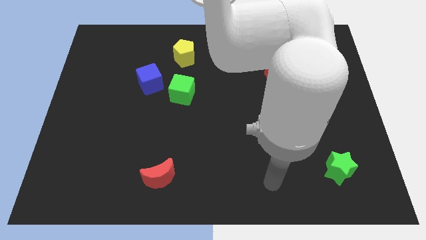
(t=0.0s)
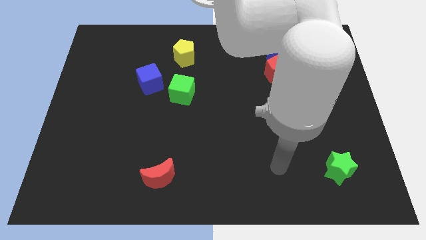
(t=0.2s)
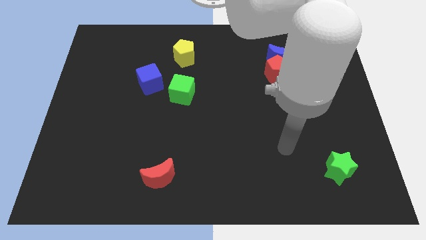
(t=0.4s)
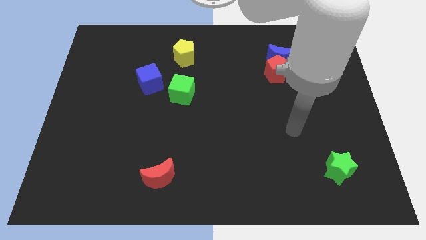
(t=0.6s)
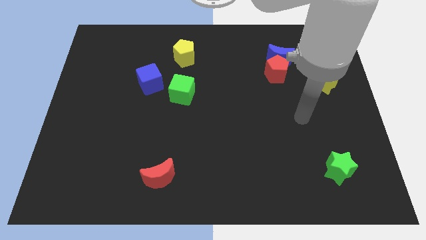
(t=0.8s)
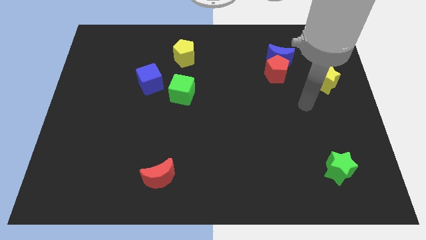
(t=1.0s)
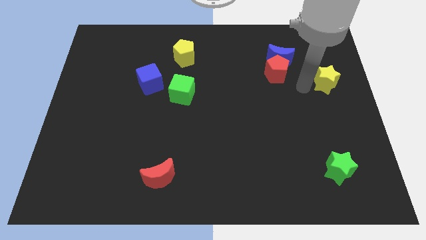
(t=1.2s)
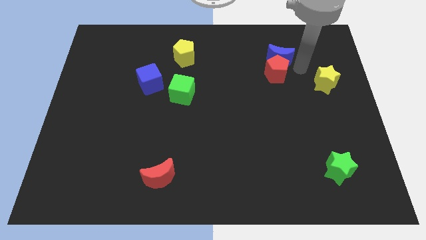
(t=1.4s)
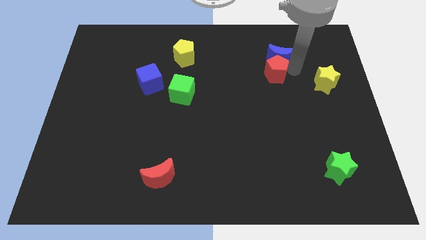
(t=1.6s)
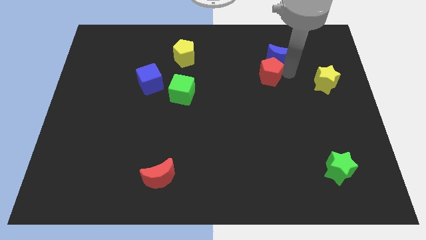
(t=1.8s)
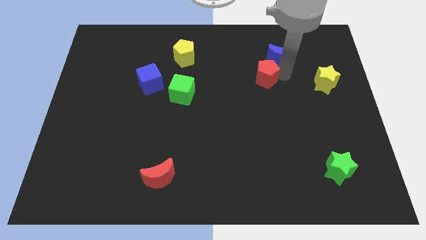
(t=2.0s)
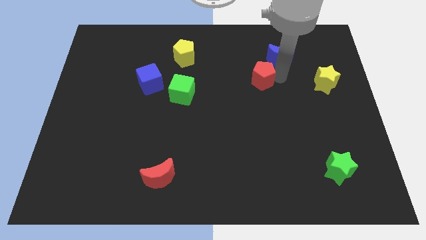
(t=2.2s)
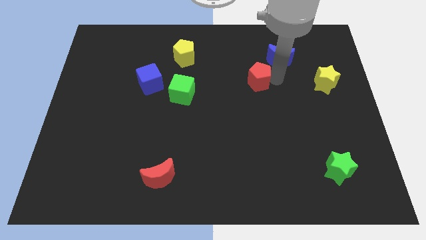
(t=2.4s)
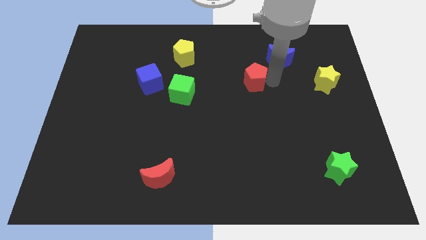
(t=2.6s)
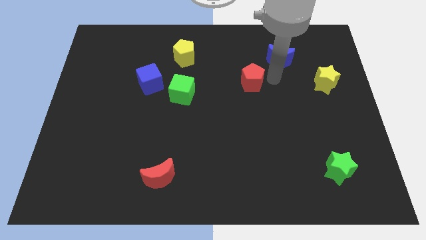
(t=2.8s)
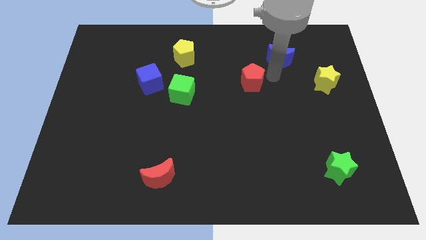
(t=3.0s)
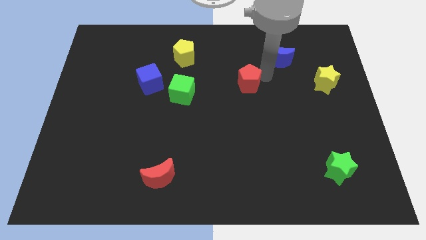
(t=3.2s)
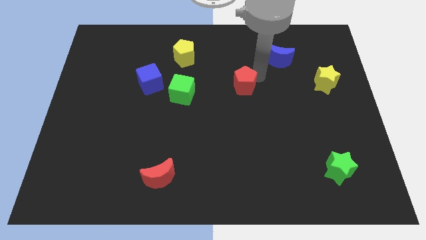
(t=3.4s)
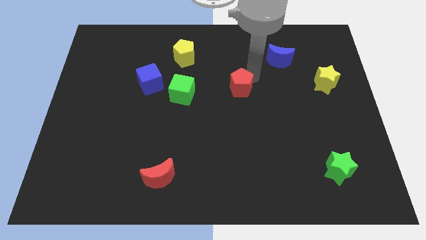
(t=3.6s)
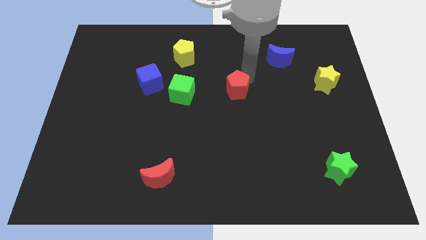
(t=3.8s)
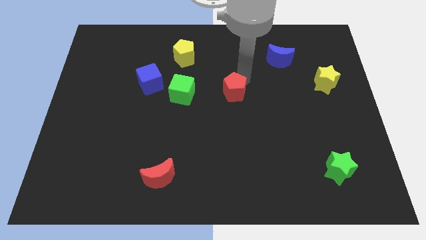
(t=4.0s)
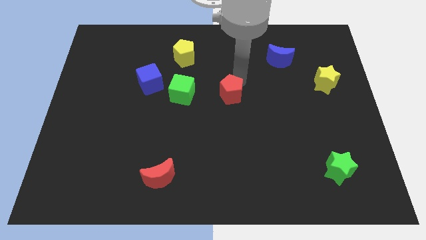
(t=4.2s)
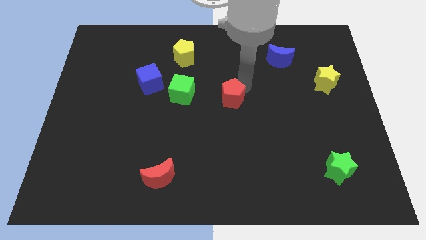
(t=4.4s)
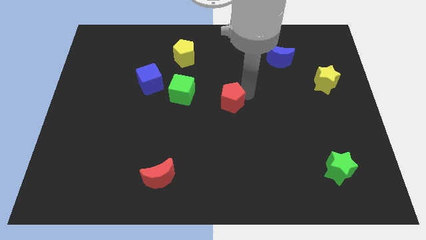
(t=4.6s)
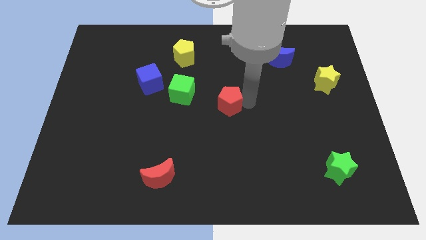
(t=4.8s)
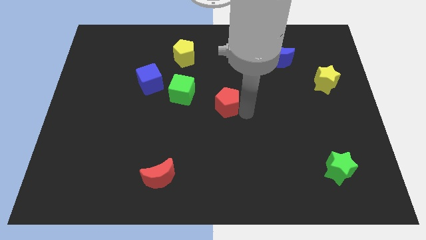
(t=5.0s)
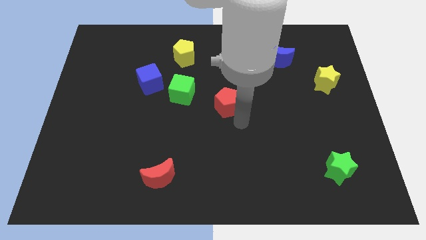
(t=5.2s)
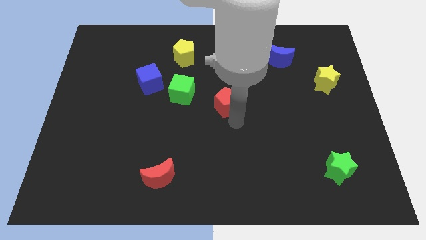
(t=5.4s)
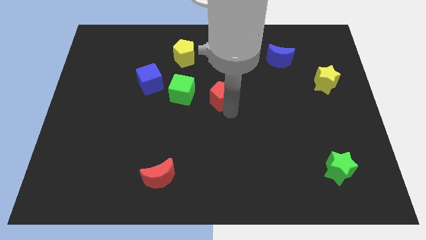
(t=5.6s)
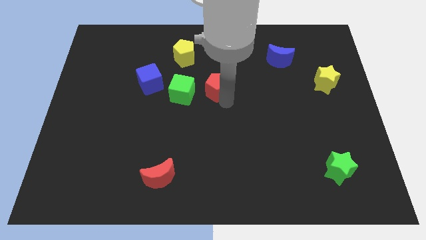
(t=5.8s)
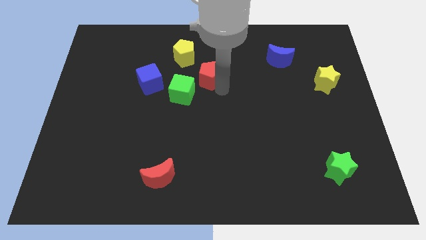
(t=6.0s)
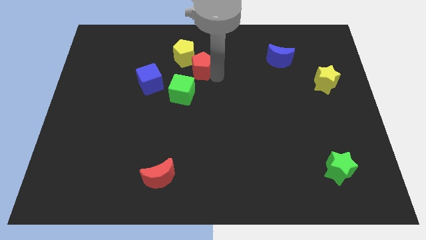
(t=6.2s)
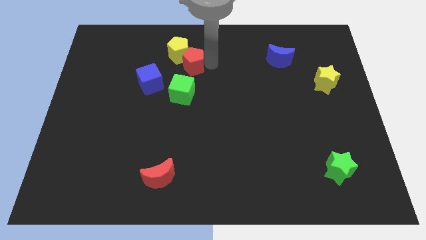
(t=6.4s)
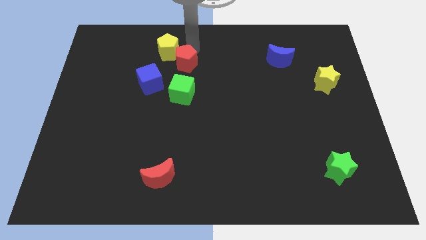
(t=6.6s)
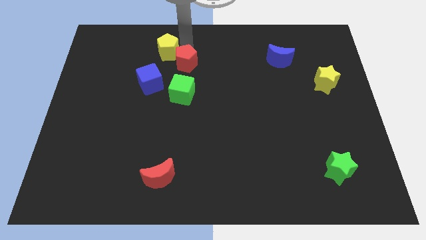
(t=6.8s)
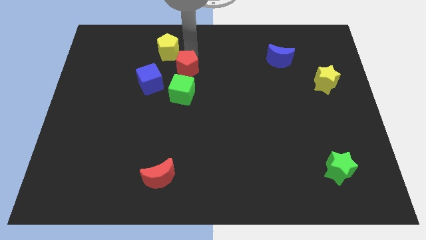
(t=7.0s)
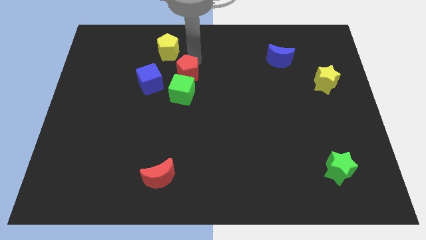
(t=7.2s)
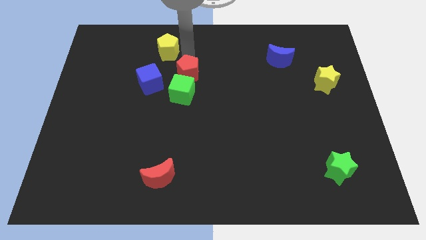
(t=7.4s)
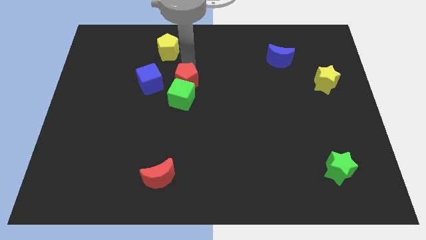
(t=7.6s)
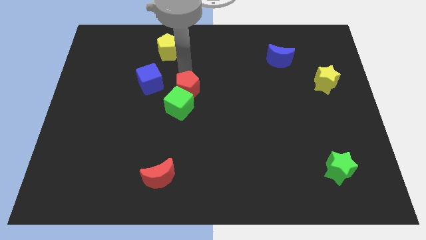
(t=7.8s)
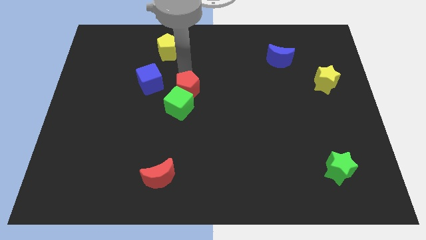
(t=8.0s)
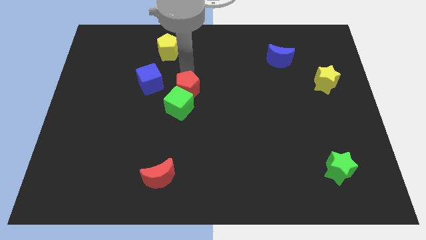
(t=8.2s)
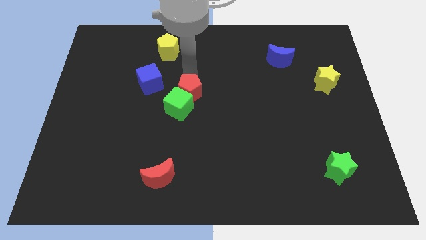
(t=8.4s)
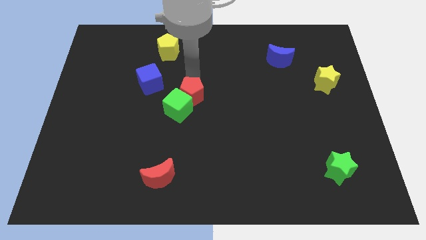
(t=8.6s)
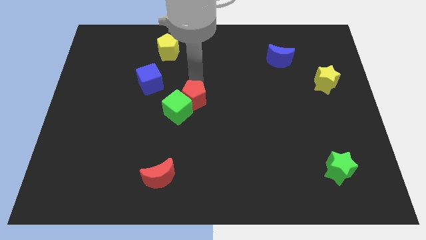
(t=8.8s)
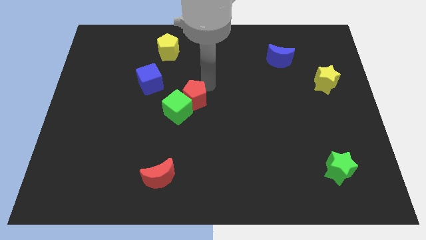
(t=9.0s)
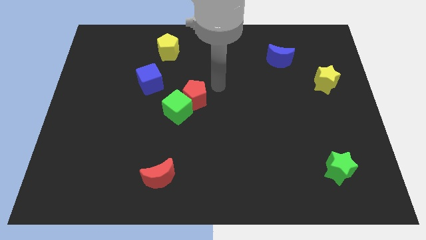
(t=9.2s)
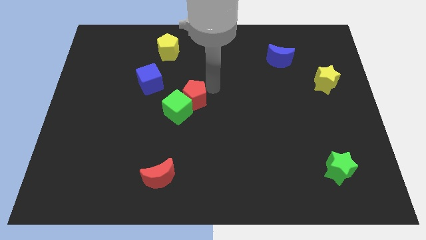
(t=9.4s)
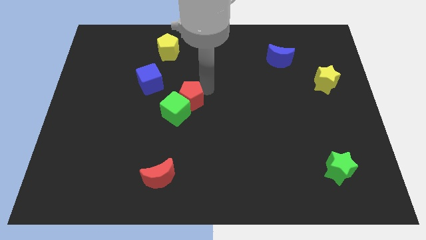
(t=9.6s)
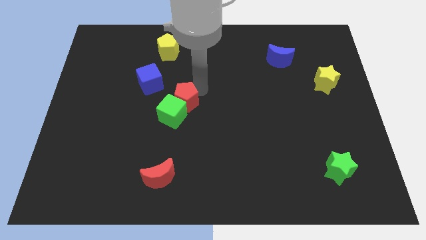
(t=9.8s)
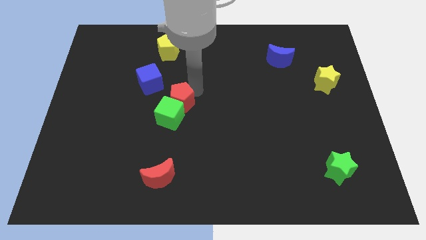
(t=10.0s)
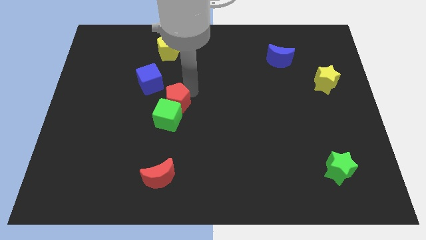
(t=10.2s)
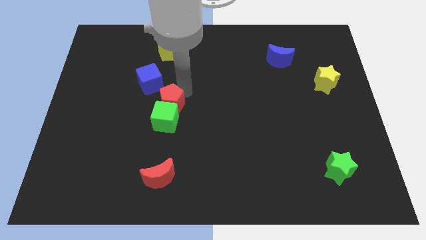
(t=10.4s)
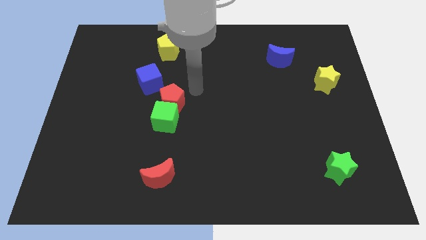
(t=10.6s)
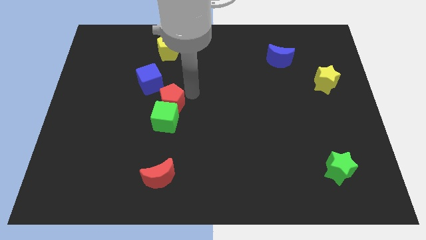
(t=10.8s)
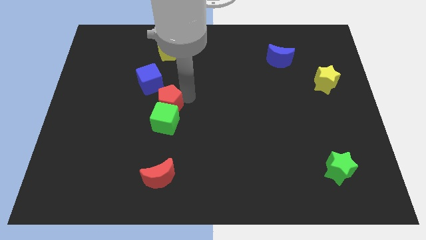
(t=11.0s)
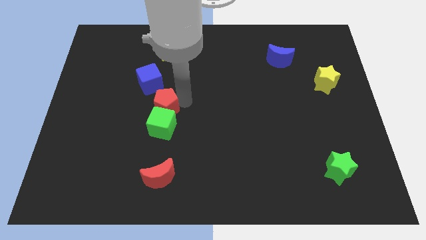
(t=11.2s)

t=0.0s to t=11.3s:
move the red pentagon below the blue cube

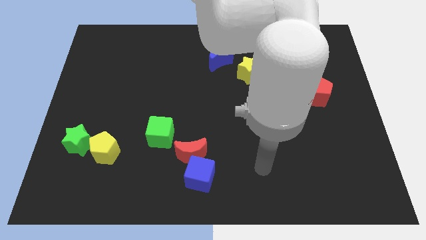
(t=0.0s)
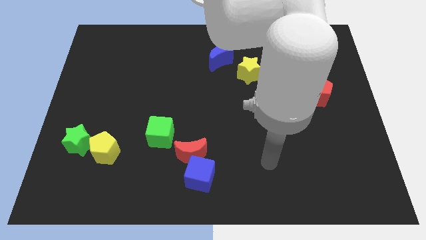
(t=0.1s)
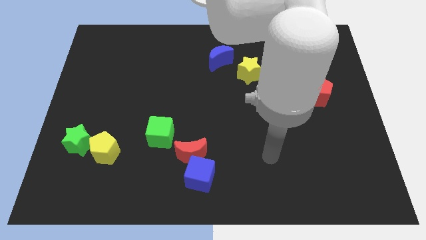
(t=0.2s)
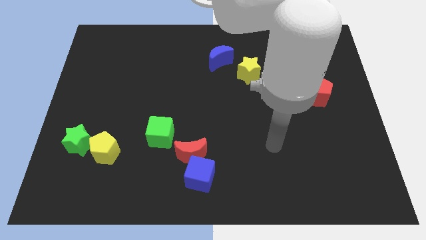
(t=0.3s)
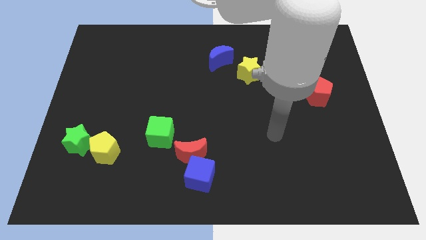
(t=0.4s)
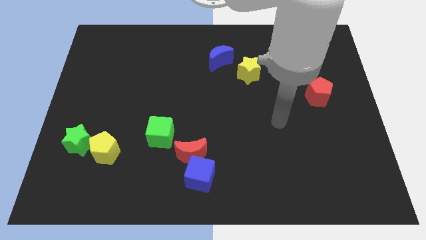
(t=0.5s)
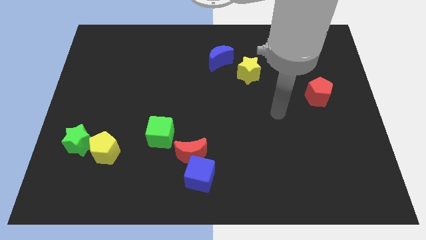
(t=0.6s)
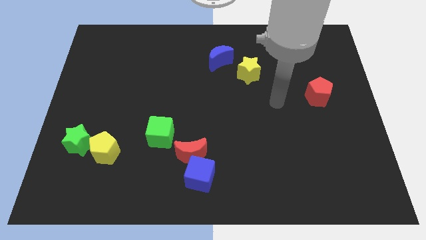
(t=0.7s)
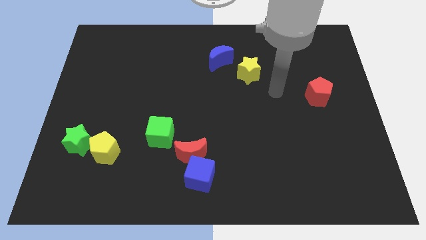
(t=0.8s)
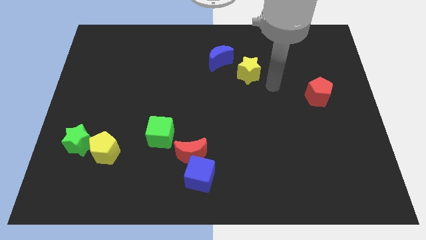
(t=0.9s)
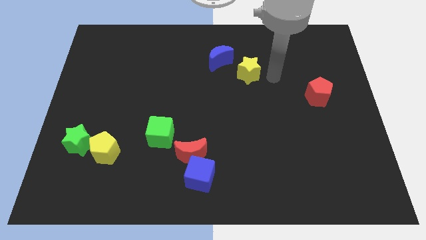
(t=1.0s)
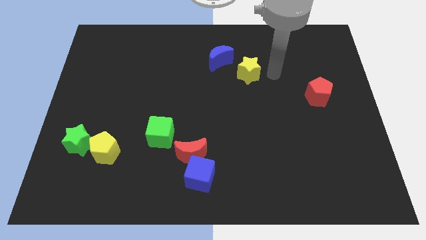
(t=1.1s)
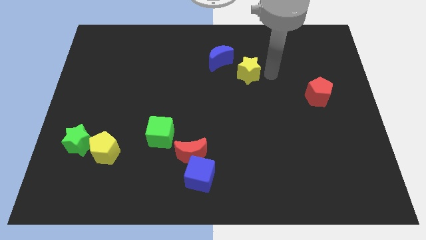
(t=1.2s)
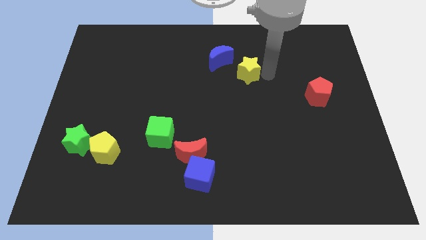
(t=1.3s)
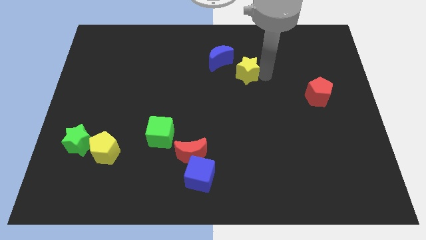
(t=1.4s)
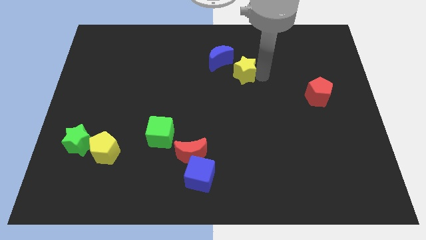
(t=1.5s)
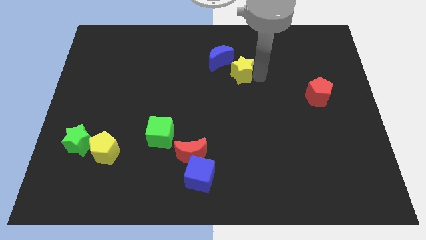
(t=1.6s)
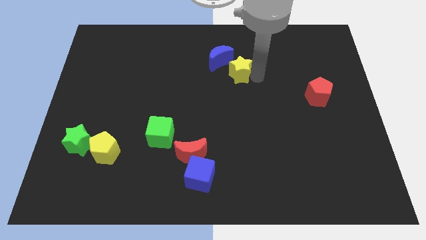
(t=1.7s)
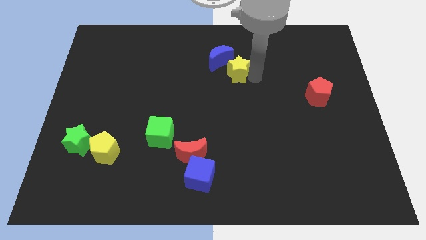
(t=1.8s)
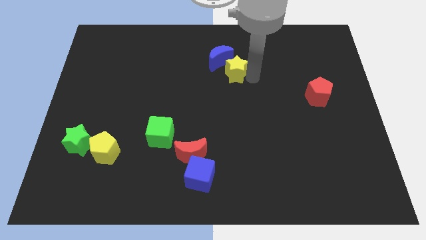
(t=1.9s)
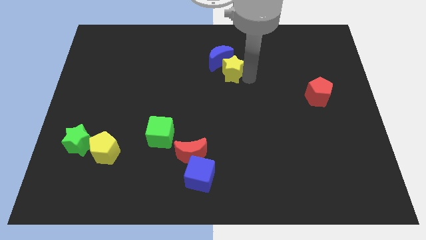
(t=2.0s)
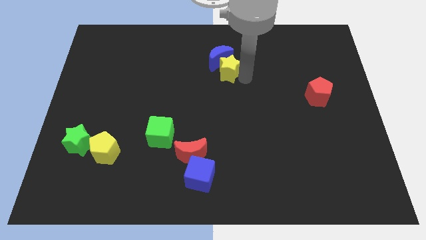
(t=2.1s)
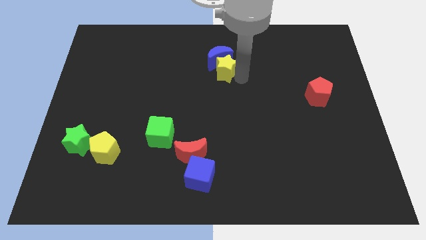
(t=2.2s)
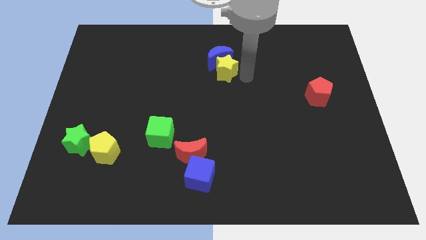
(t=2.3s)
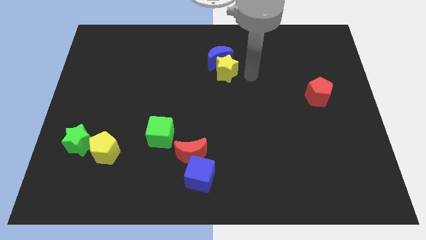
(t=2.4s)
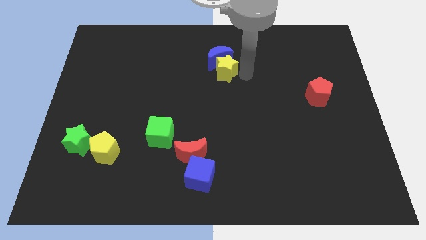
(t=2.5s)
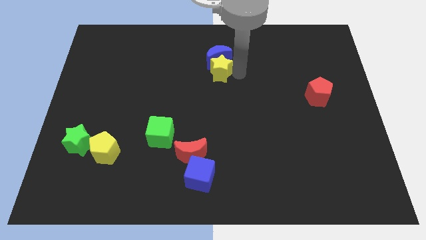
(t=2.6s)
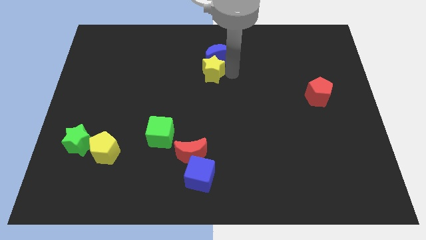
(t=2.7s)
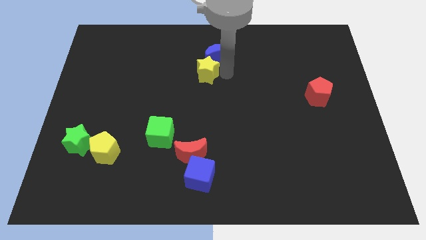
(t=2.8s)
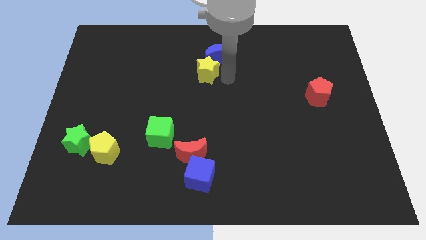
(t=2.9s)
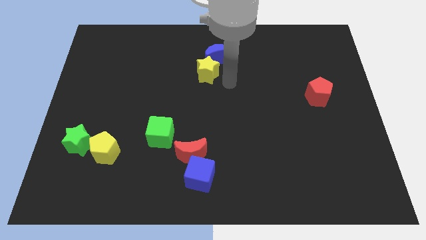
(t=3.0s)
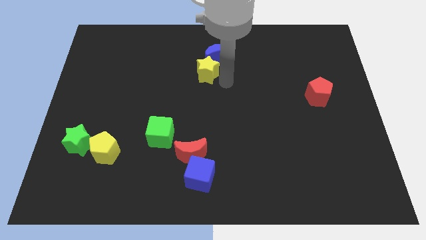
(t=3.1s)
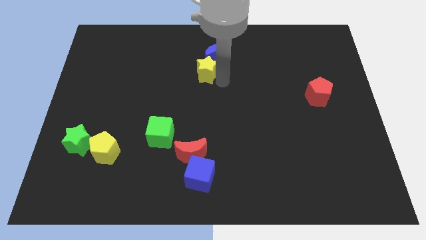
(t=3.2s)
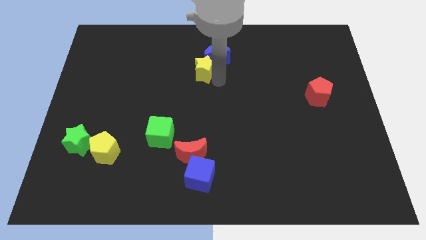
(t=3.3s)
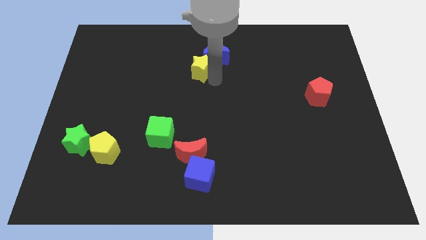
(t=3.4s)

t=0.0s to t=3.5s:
slide the yellow star to the left of the blue moon
